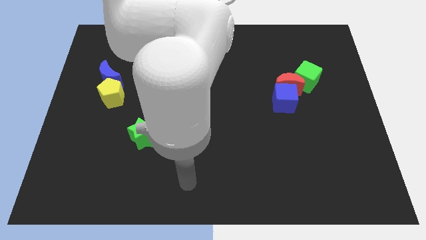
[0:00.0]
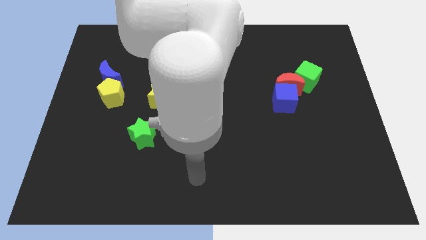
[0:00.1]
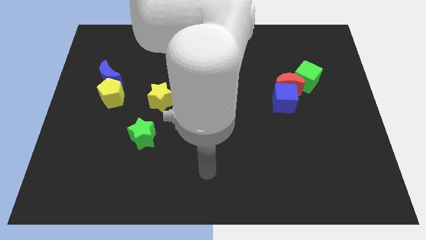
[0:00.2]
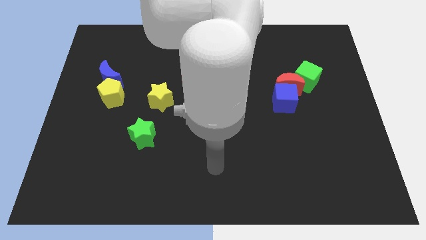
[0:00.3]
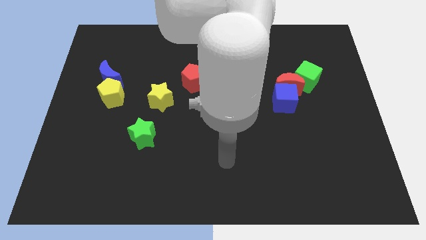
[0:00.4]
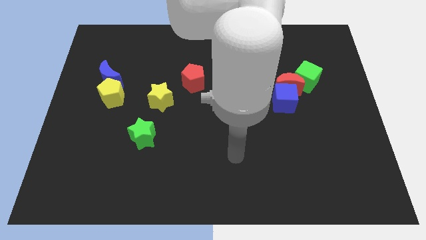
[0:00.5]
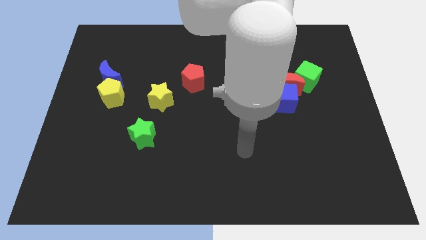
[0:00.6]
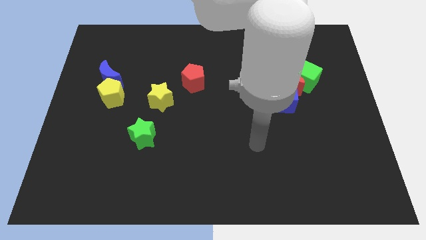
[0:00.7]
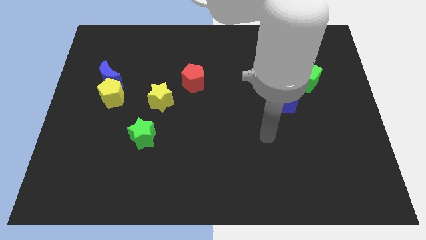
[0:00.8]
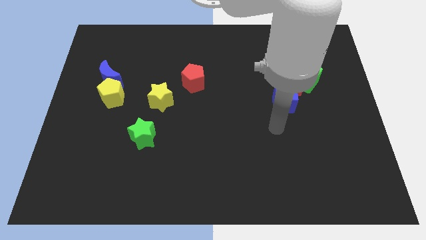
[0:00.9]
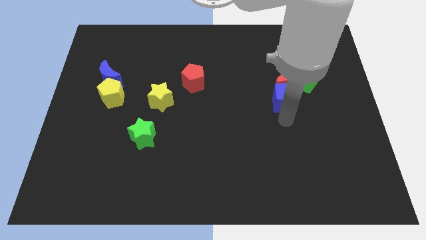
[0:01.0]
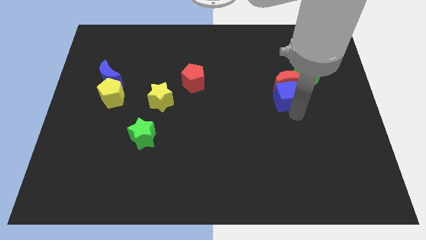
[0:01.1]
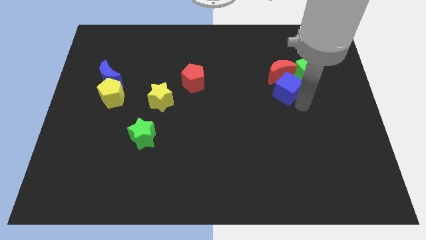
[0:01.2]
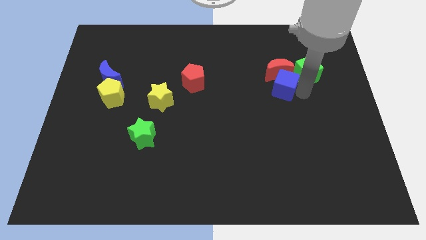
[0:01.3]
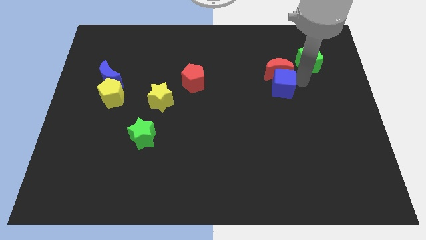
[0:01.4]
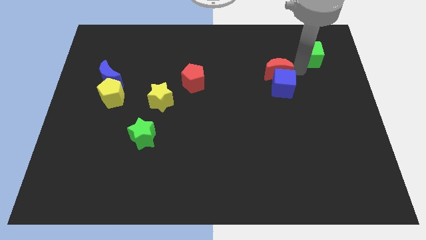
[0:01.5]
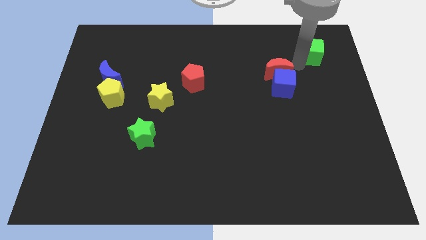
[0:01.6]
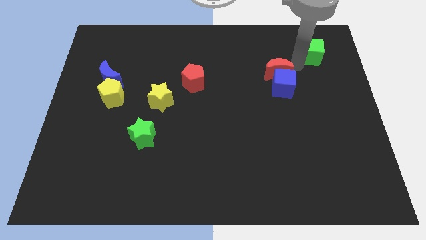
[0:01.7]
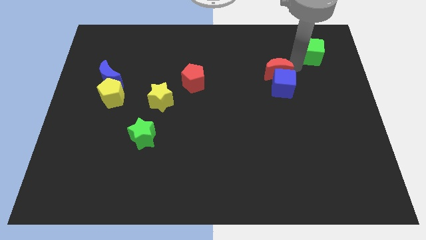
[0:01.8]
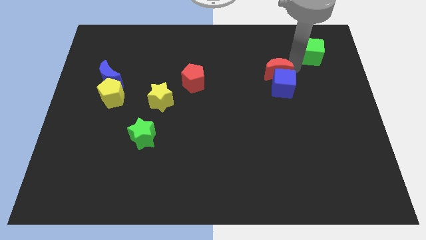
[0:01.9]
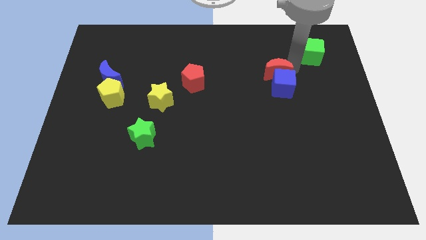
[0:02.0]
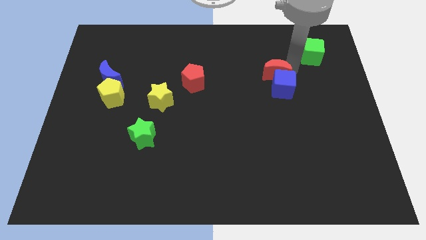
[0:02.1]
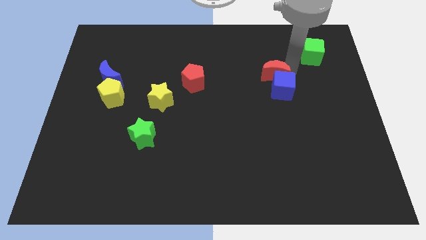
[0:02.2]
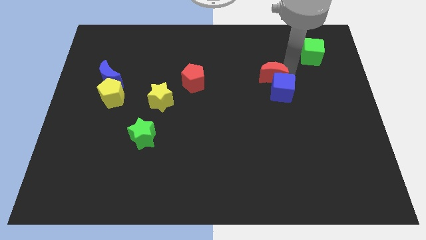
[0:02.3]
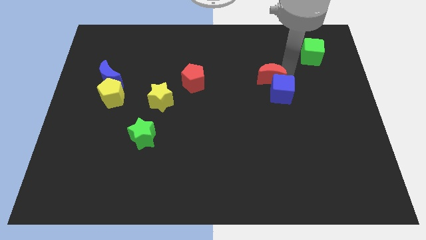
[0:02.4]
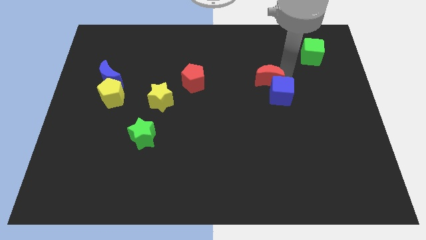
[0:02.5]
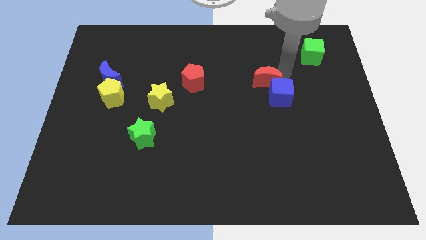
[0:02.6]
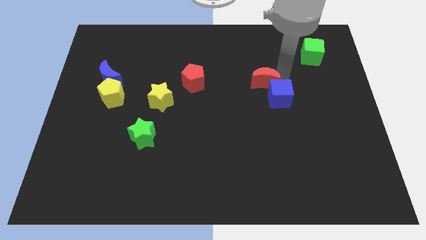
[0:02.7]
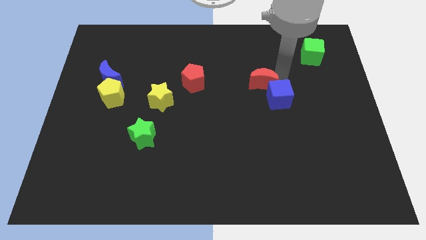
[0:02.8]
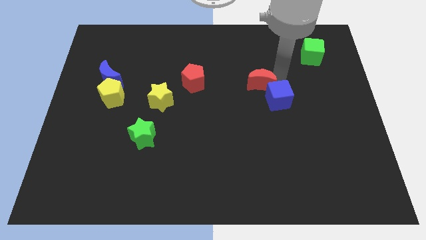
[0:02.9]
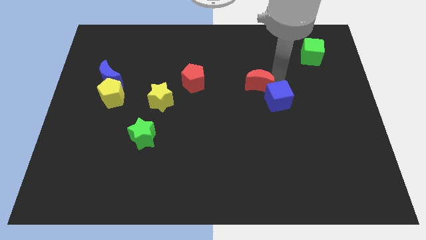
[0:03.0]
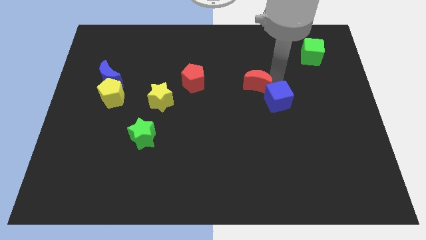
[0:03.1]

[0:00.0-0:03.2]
separate the red moon from the blue cube and green cube

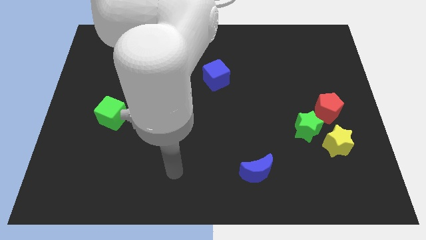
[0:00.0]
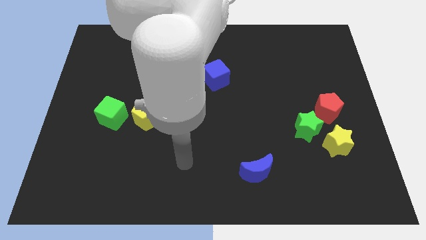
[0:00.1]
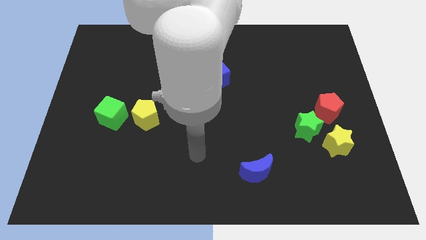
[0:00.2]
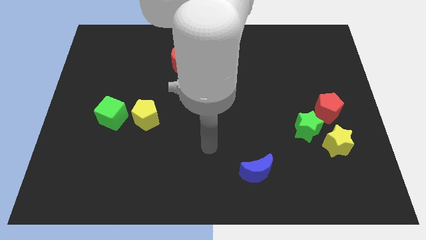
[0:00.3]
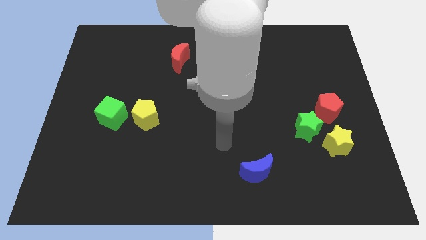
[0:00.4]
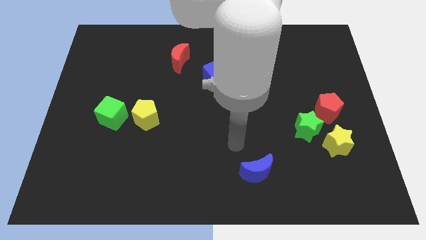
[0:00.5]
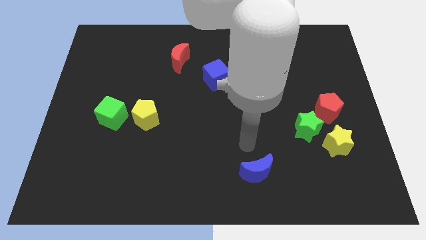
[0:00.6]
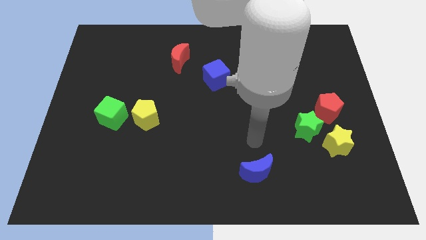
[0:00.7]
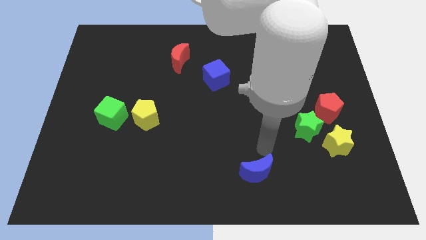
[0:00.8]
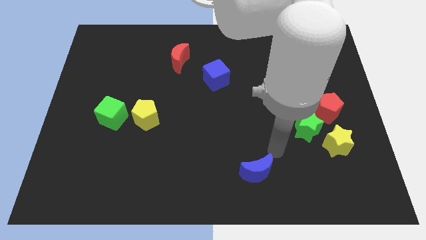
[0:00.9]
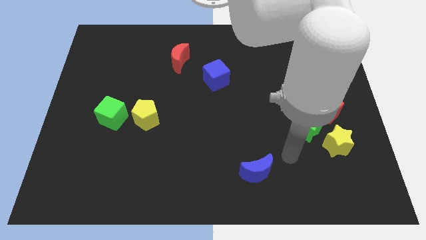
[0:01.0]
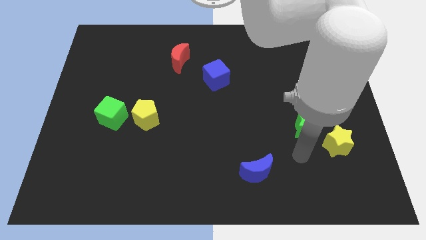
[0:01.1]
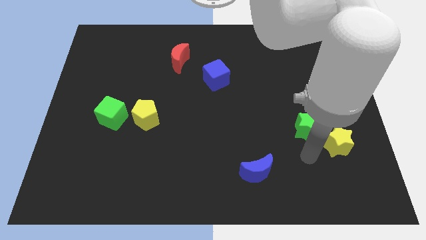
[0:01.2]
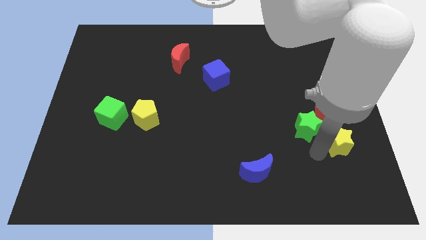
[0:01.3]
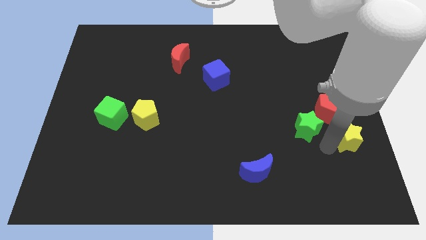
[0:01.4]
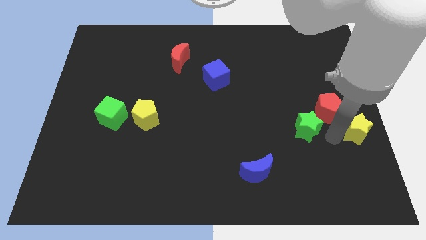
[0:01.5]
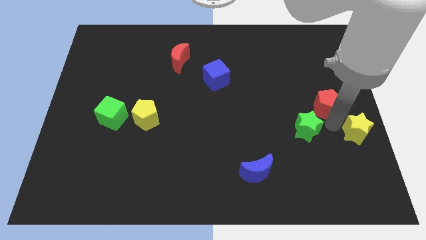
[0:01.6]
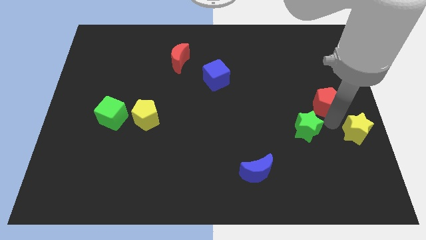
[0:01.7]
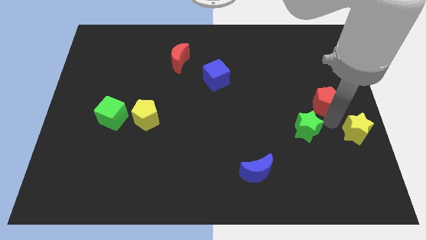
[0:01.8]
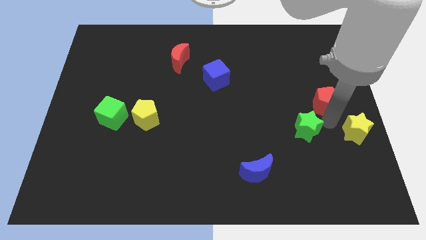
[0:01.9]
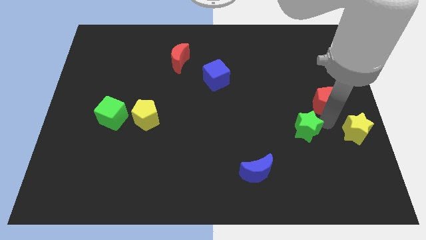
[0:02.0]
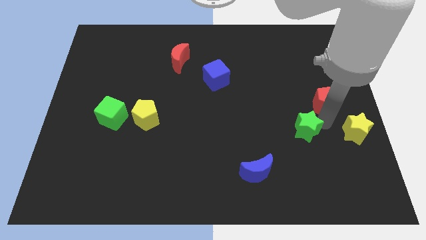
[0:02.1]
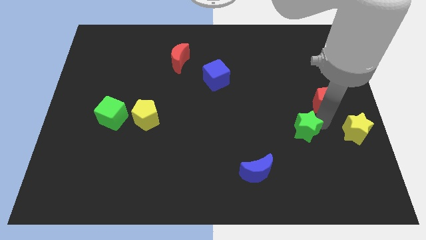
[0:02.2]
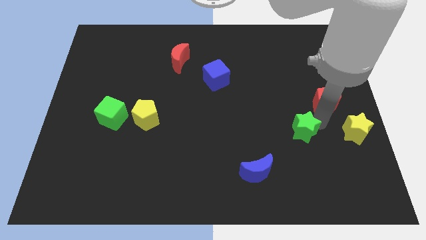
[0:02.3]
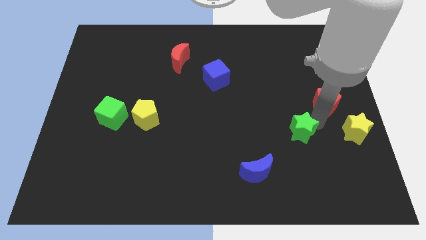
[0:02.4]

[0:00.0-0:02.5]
pull the green star apart from the yellow star and red pentagon

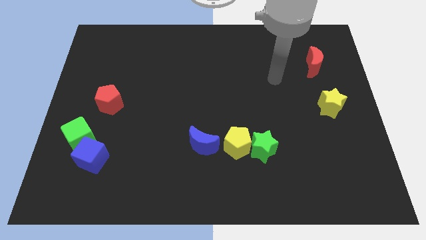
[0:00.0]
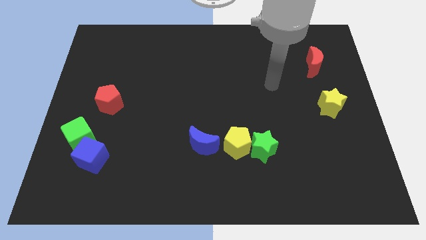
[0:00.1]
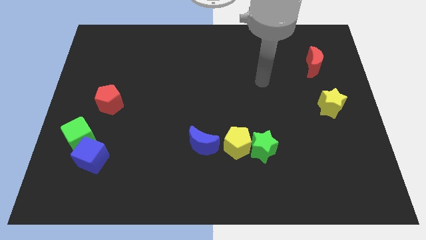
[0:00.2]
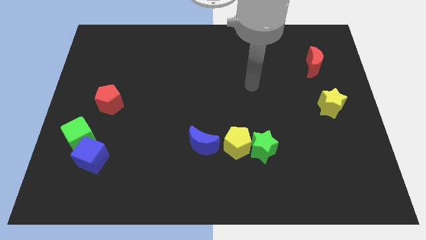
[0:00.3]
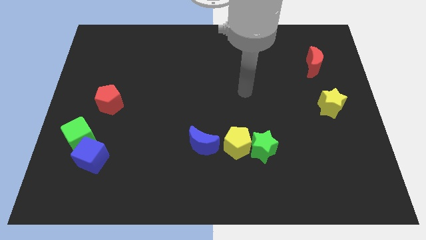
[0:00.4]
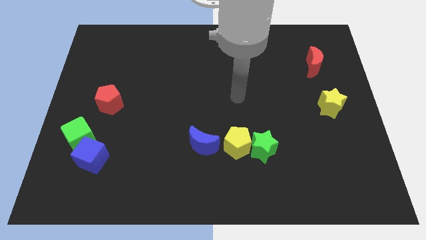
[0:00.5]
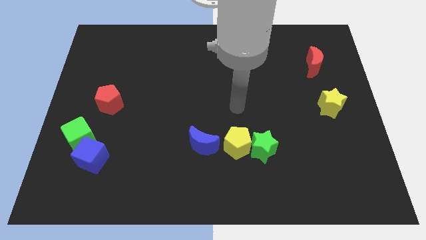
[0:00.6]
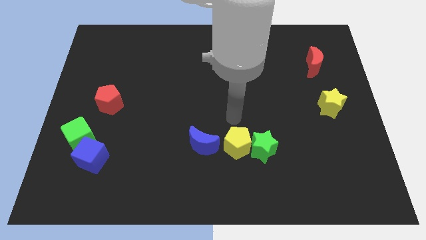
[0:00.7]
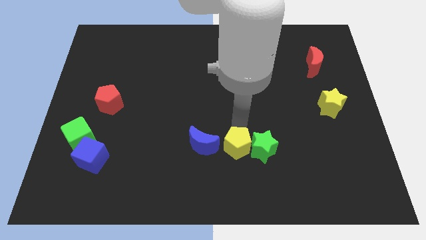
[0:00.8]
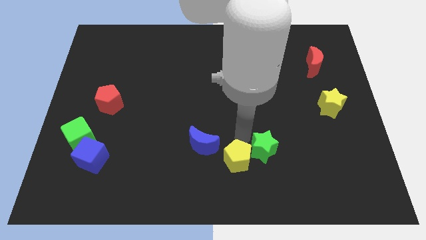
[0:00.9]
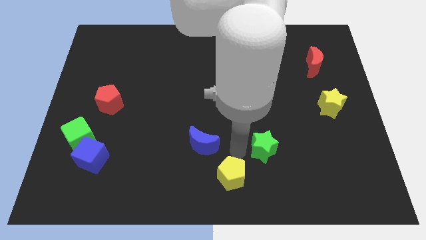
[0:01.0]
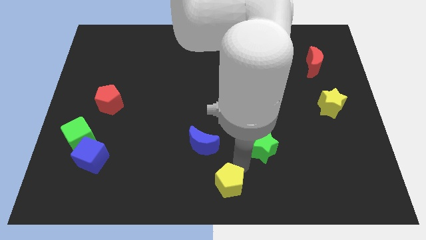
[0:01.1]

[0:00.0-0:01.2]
pull the green star apart from the yellow pentagon

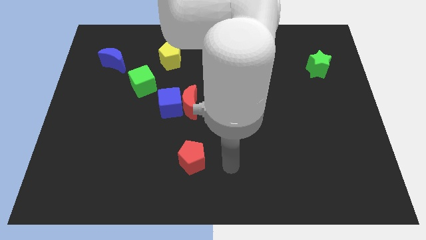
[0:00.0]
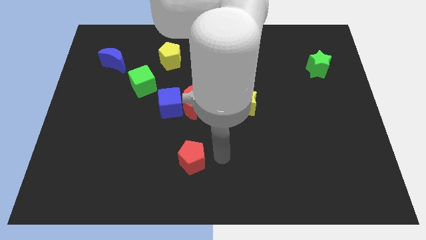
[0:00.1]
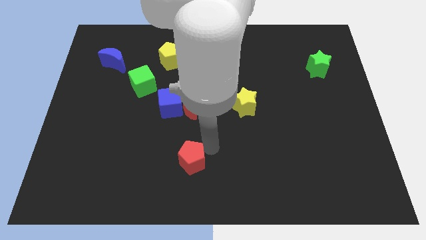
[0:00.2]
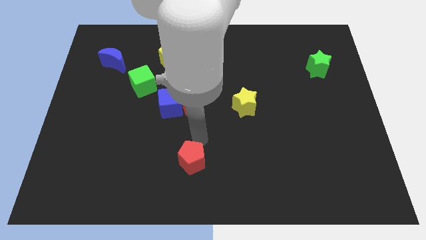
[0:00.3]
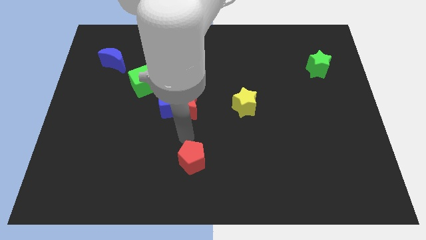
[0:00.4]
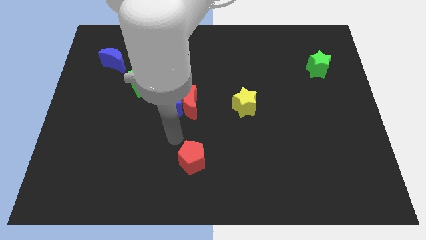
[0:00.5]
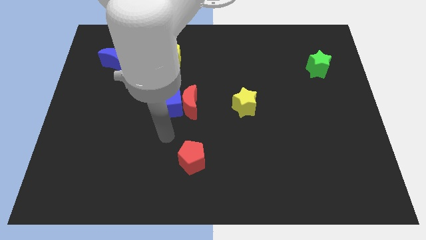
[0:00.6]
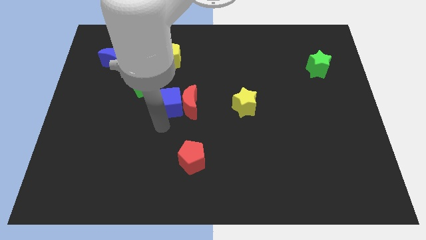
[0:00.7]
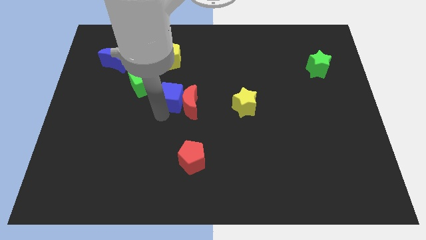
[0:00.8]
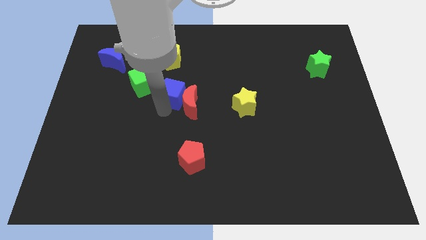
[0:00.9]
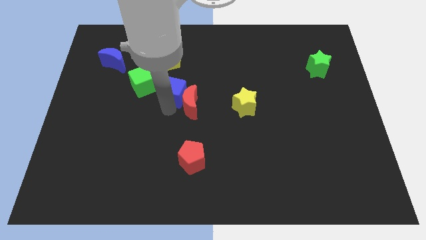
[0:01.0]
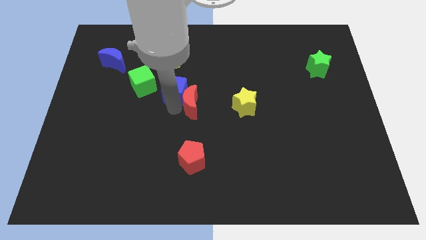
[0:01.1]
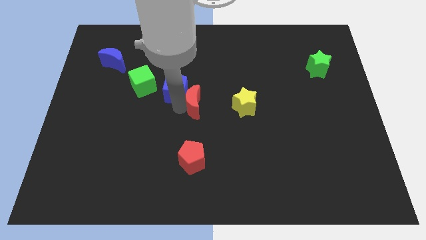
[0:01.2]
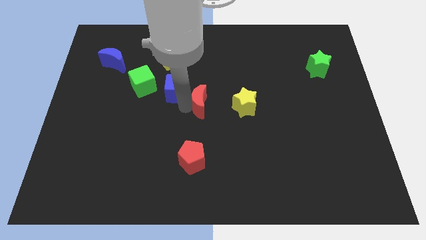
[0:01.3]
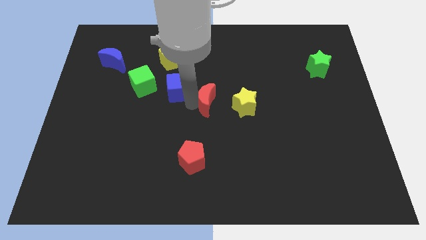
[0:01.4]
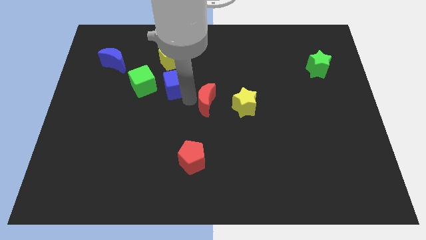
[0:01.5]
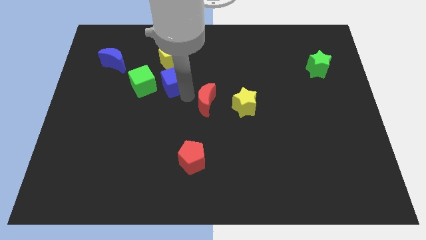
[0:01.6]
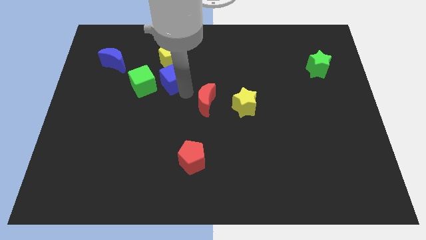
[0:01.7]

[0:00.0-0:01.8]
move the red moon away from the blue cube

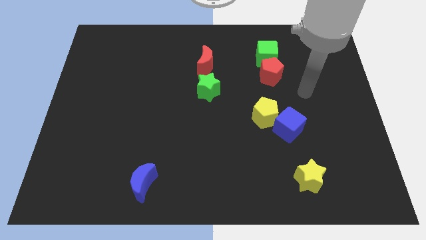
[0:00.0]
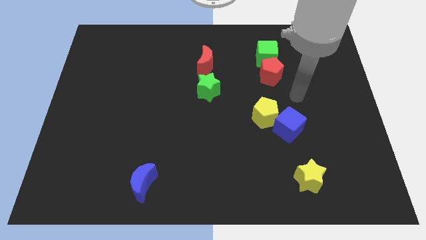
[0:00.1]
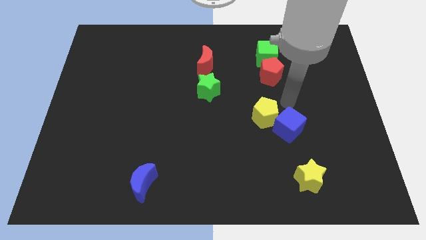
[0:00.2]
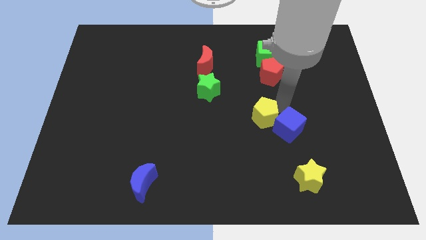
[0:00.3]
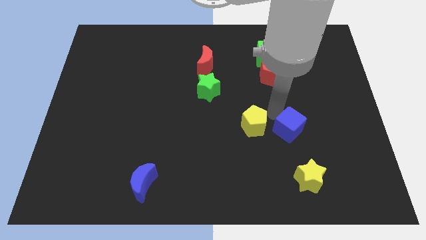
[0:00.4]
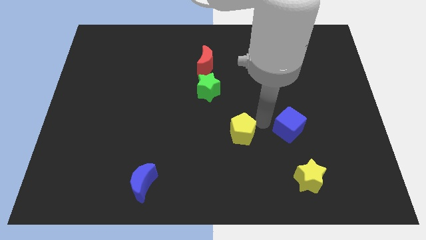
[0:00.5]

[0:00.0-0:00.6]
move the blue cube away from the yellow pentagon
